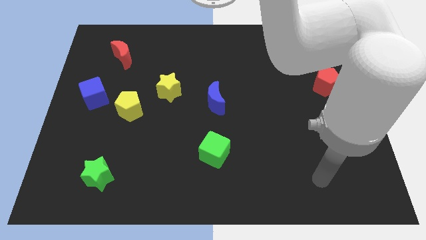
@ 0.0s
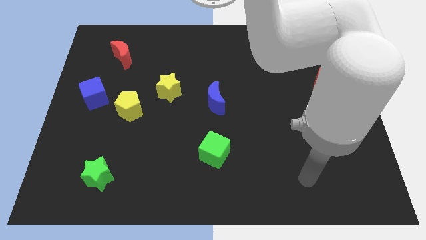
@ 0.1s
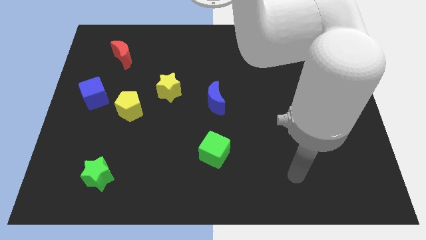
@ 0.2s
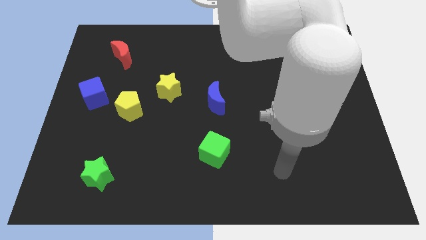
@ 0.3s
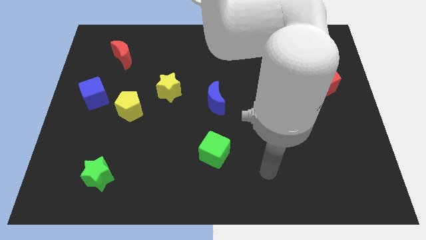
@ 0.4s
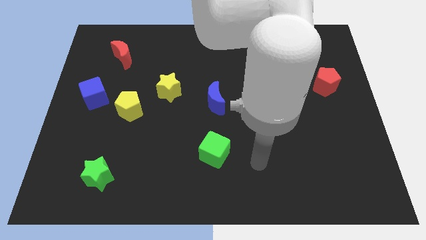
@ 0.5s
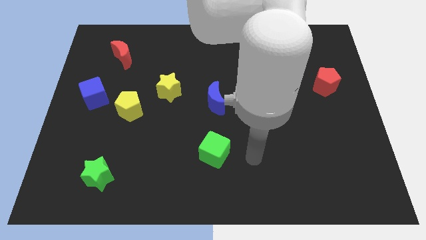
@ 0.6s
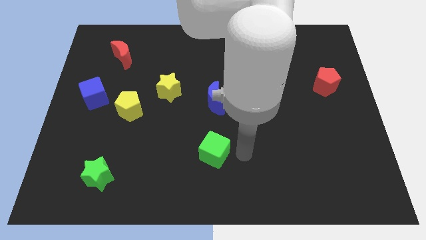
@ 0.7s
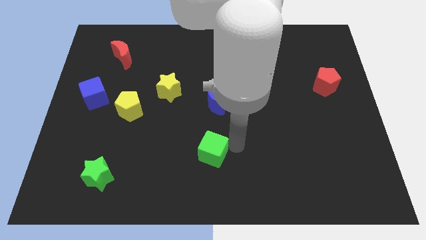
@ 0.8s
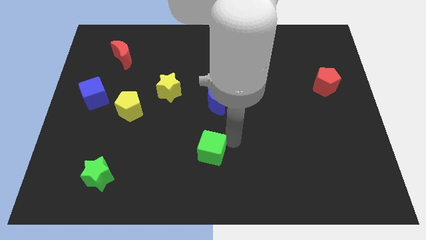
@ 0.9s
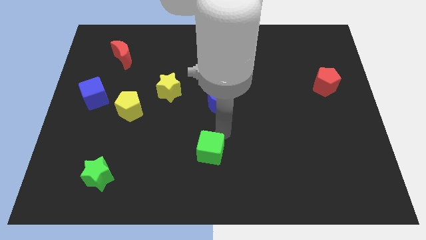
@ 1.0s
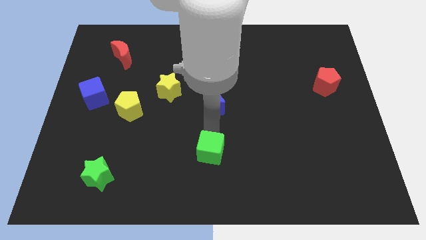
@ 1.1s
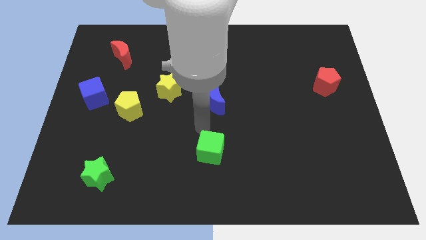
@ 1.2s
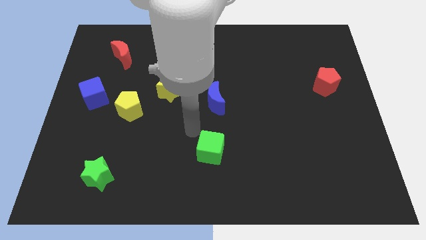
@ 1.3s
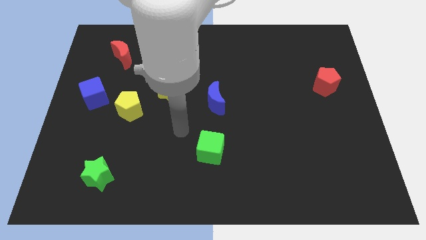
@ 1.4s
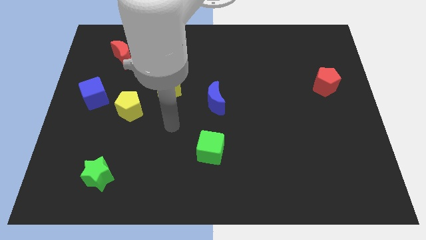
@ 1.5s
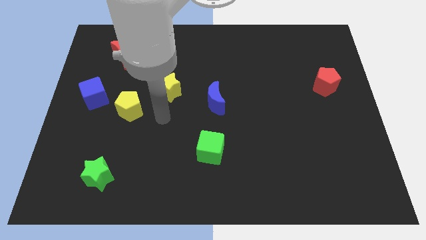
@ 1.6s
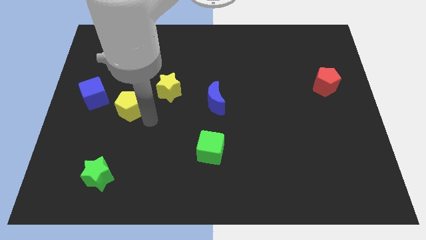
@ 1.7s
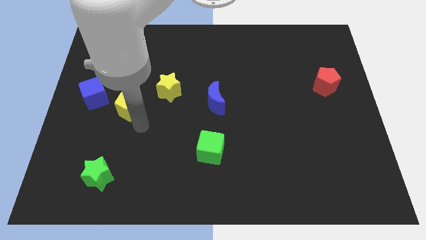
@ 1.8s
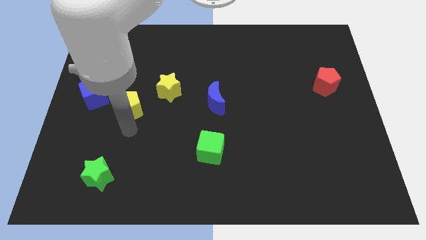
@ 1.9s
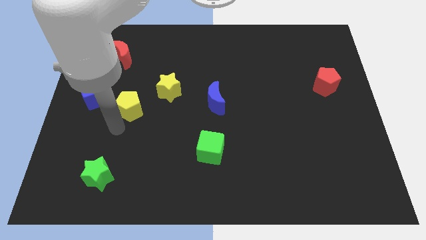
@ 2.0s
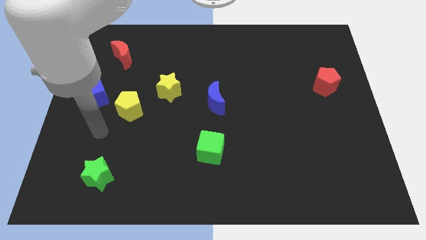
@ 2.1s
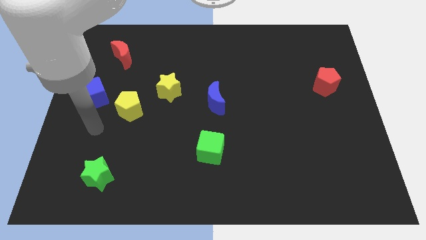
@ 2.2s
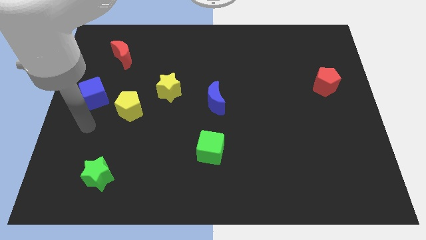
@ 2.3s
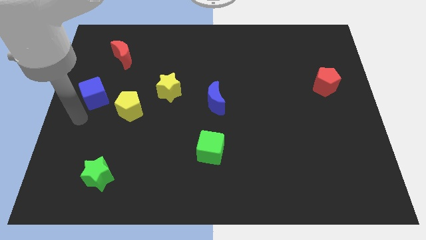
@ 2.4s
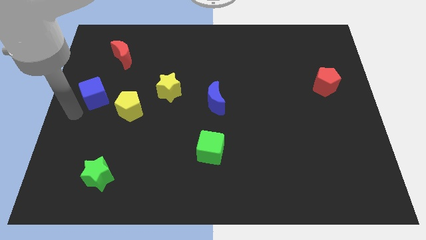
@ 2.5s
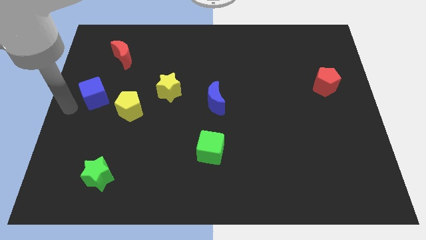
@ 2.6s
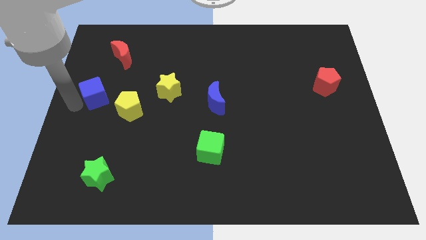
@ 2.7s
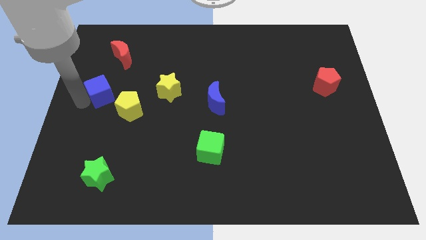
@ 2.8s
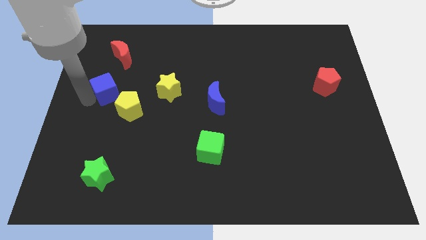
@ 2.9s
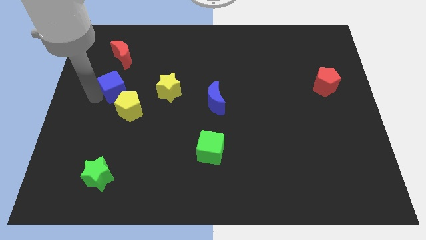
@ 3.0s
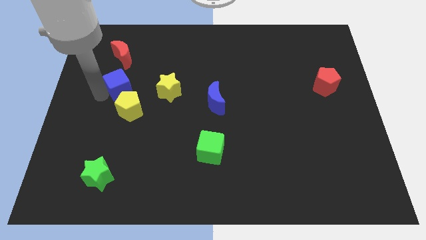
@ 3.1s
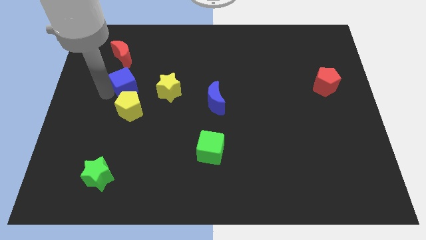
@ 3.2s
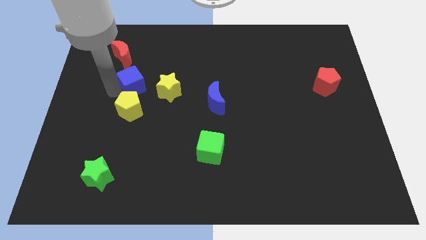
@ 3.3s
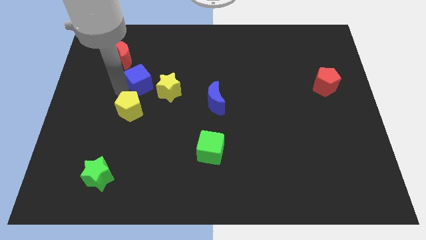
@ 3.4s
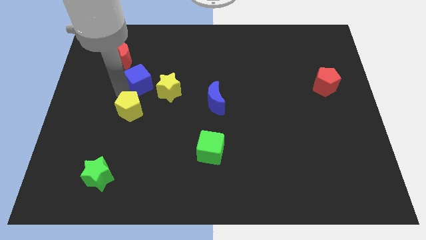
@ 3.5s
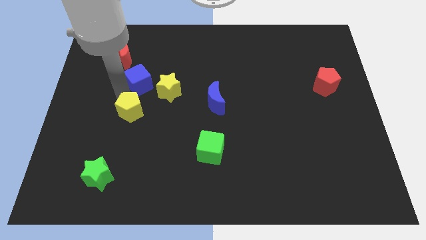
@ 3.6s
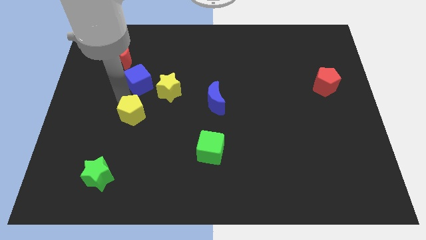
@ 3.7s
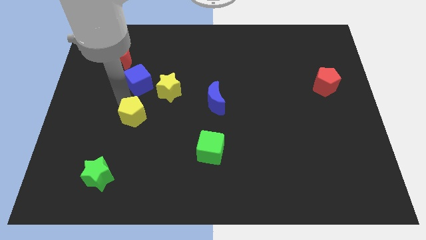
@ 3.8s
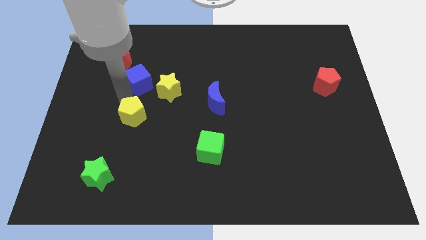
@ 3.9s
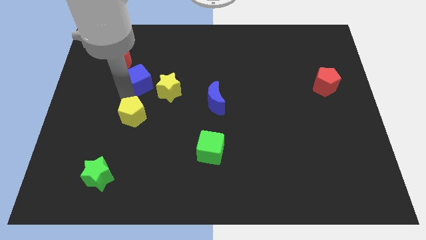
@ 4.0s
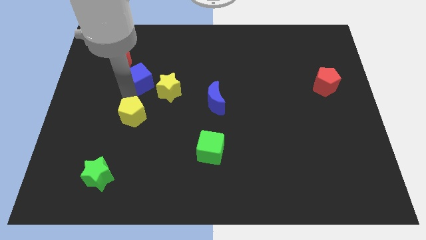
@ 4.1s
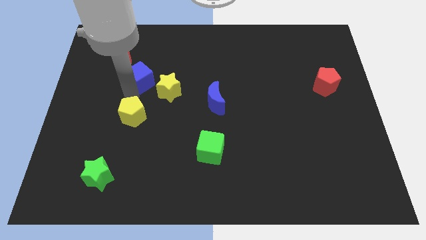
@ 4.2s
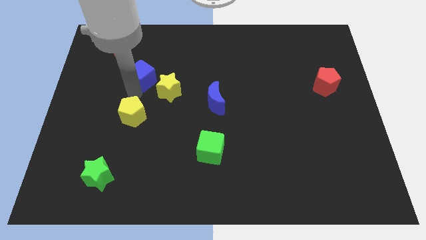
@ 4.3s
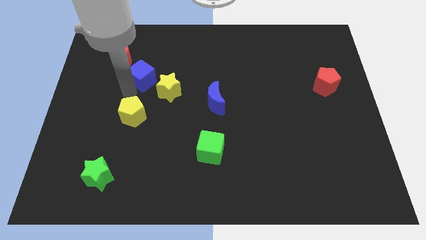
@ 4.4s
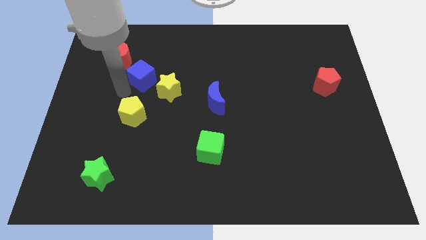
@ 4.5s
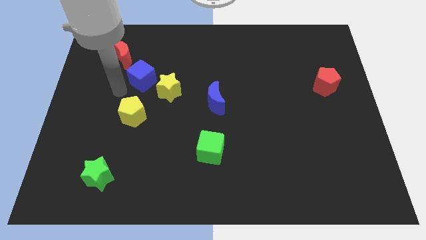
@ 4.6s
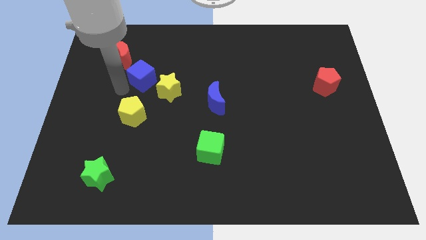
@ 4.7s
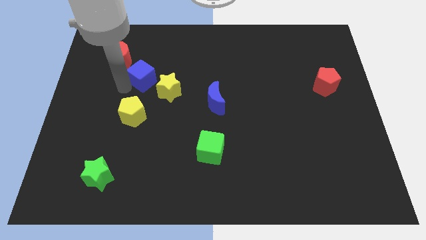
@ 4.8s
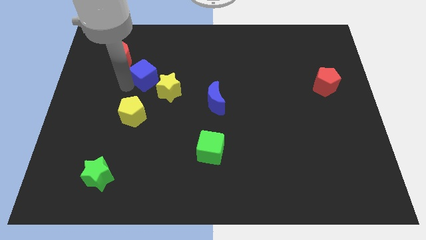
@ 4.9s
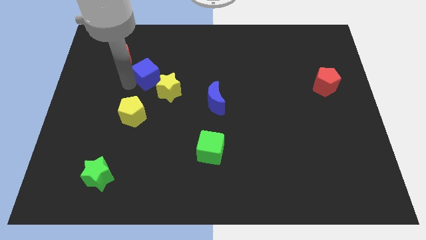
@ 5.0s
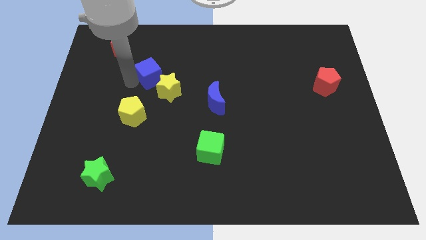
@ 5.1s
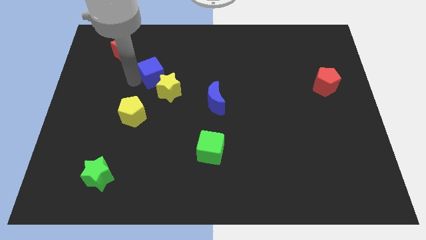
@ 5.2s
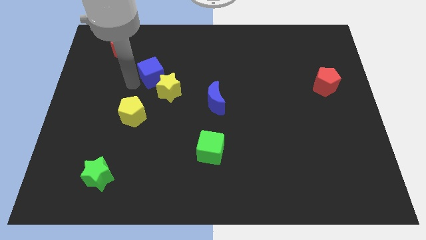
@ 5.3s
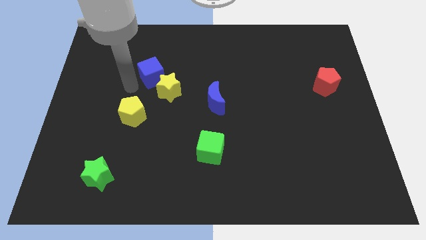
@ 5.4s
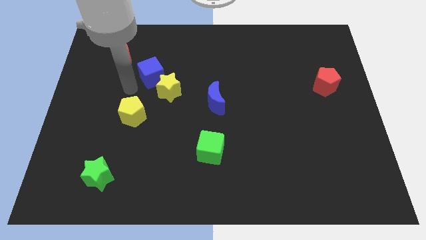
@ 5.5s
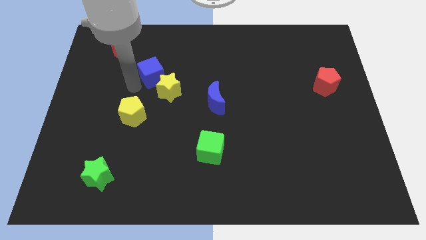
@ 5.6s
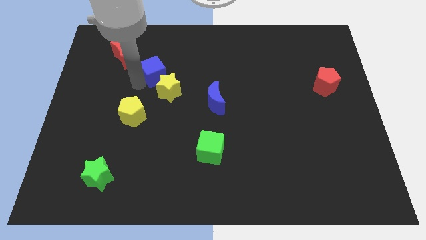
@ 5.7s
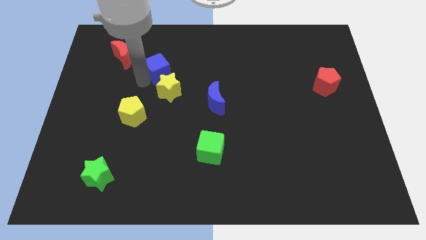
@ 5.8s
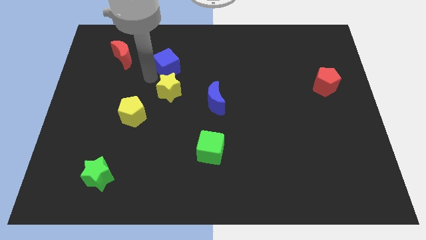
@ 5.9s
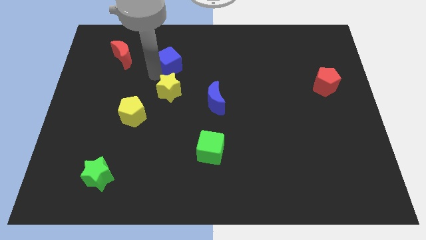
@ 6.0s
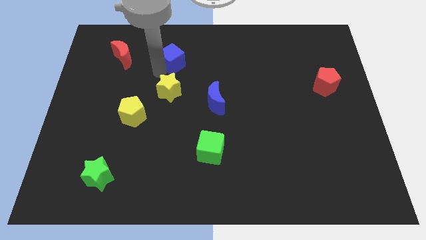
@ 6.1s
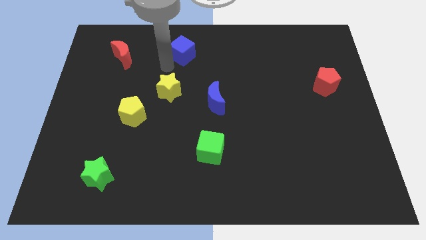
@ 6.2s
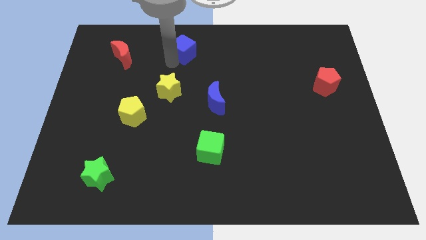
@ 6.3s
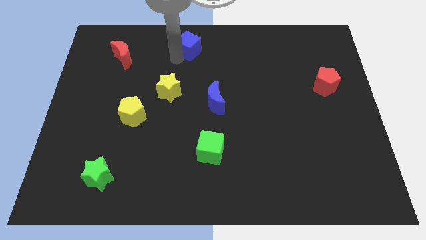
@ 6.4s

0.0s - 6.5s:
push the blue cube to the top side

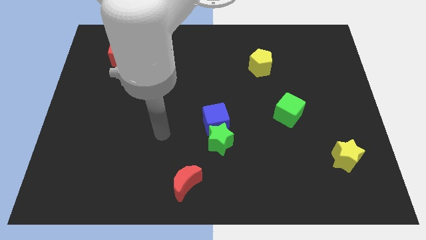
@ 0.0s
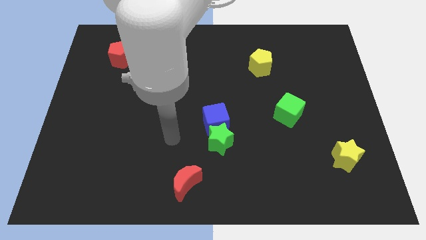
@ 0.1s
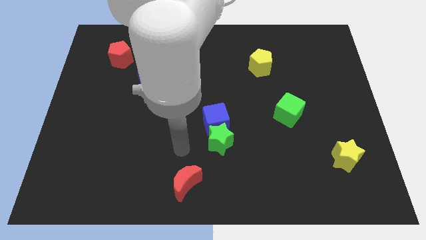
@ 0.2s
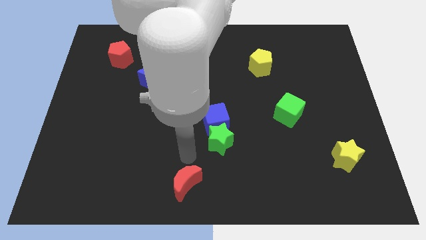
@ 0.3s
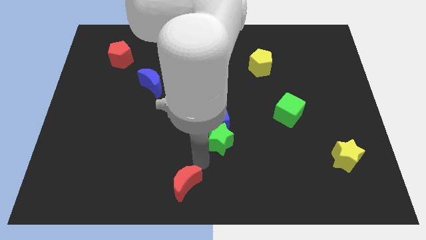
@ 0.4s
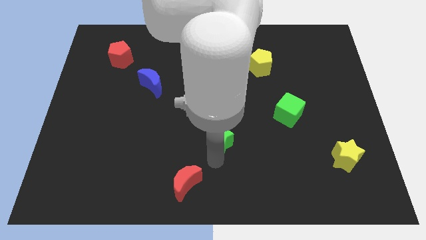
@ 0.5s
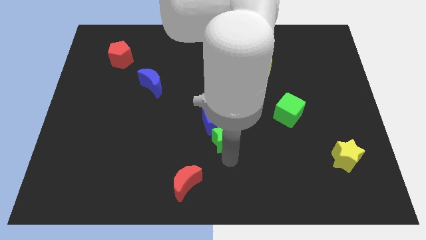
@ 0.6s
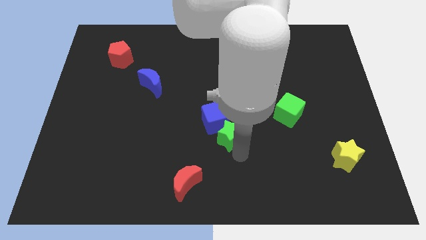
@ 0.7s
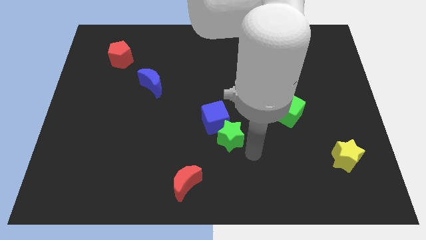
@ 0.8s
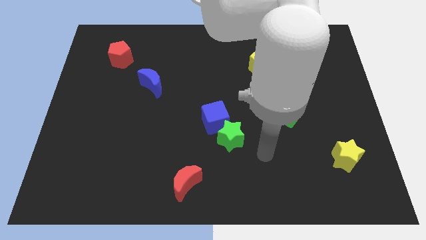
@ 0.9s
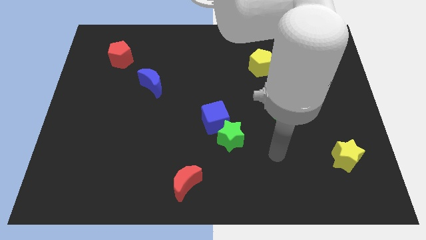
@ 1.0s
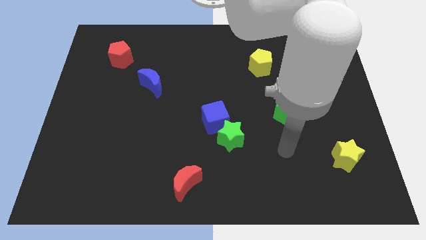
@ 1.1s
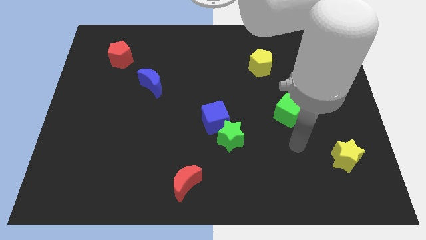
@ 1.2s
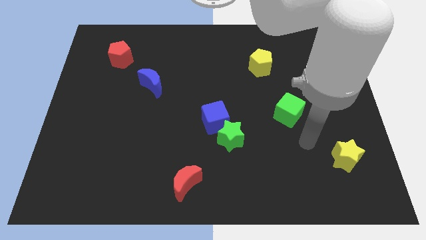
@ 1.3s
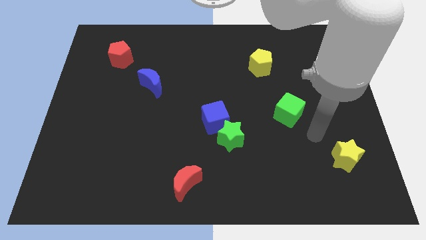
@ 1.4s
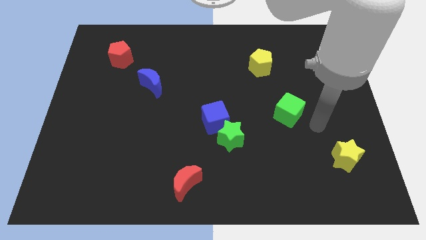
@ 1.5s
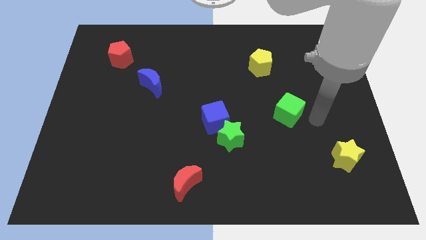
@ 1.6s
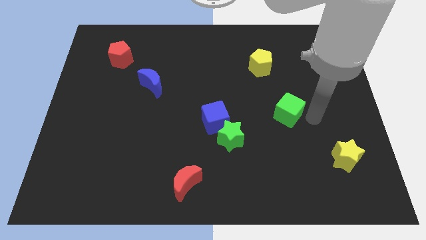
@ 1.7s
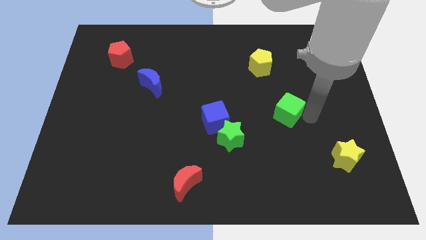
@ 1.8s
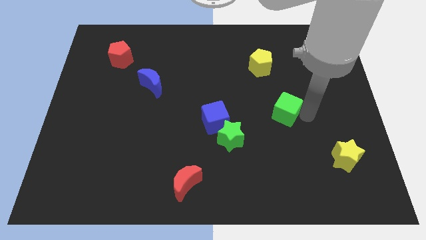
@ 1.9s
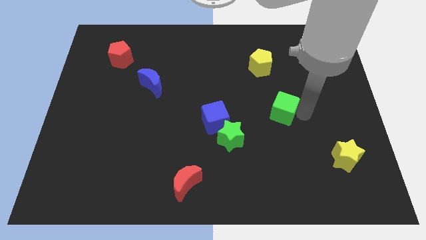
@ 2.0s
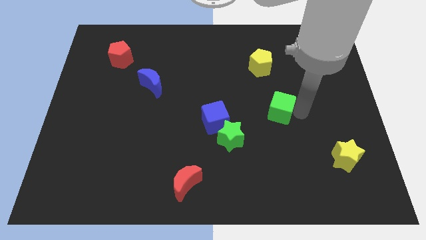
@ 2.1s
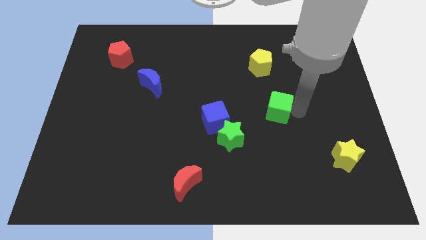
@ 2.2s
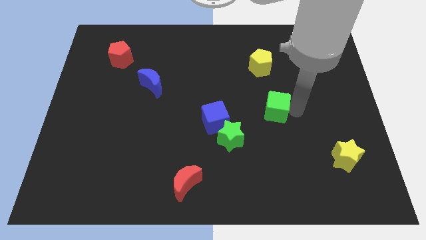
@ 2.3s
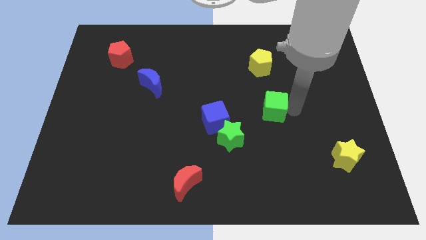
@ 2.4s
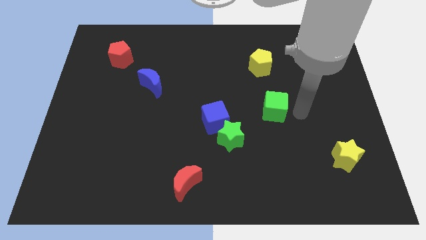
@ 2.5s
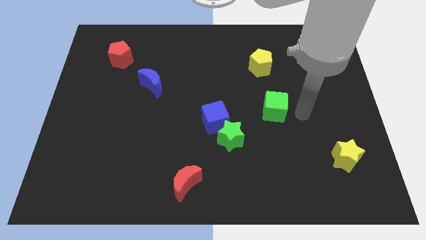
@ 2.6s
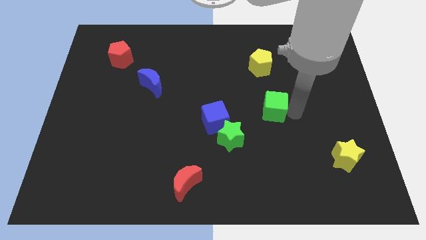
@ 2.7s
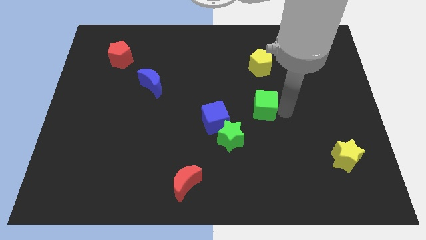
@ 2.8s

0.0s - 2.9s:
put the green cube to the middle of the board
